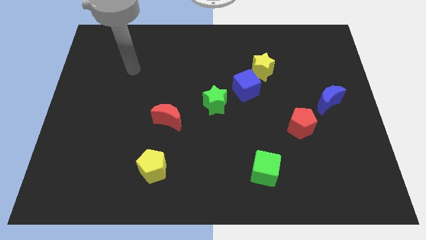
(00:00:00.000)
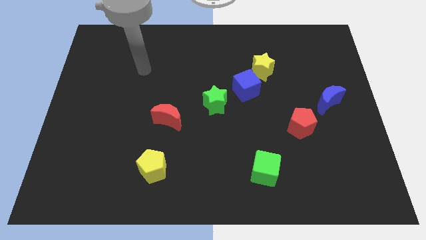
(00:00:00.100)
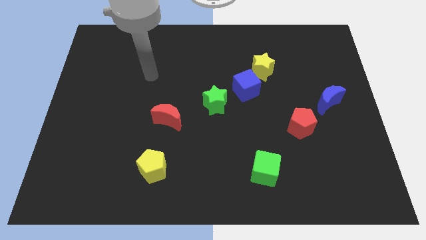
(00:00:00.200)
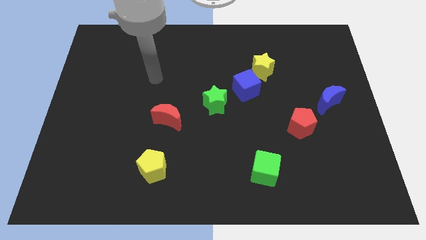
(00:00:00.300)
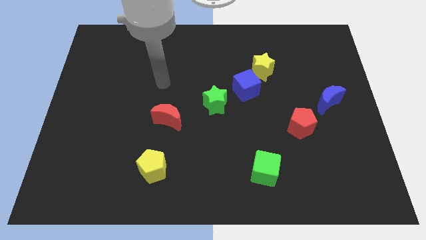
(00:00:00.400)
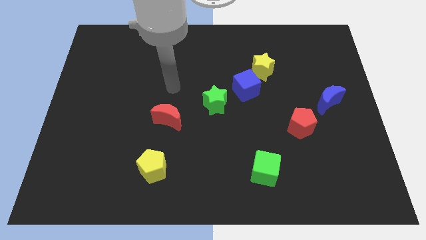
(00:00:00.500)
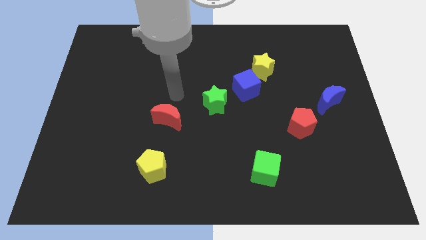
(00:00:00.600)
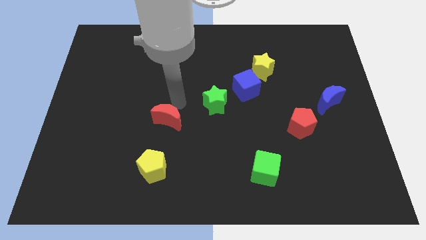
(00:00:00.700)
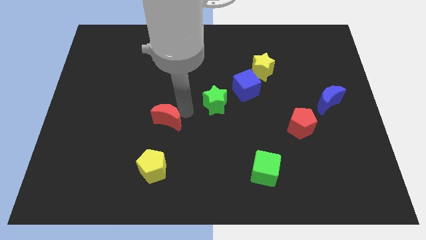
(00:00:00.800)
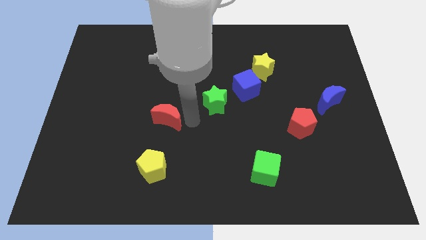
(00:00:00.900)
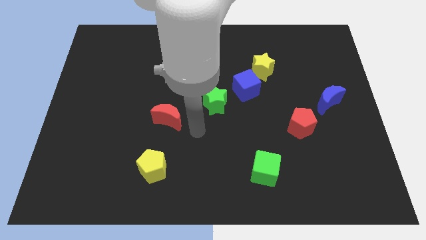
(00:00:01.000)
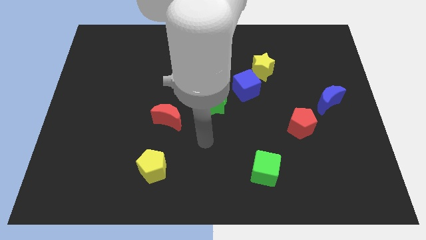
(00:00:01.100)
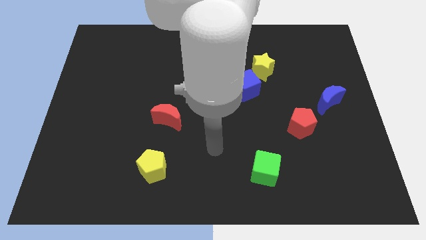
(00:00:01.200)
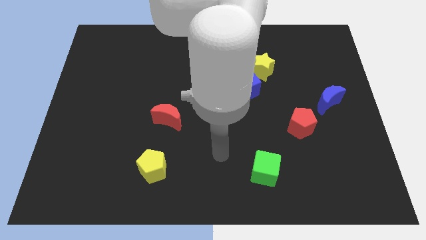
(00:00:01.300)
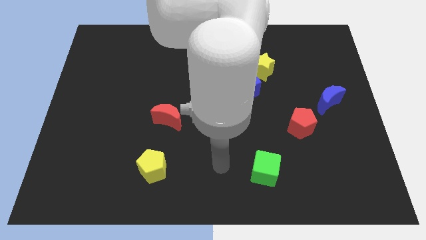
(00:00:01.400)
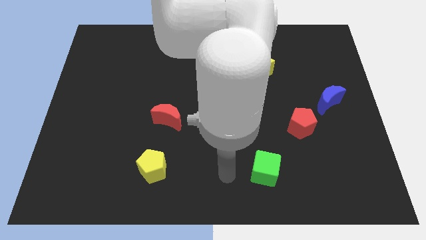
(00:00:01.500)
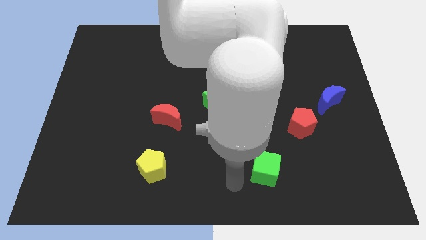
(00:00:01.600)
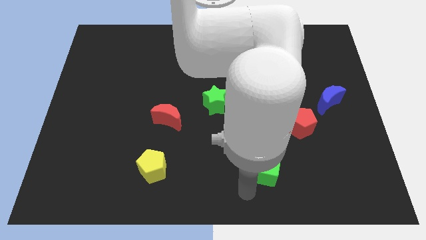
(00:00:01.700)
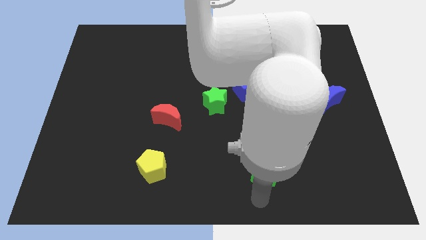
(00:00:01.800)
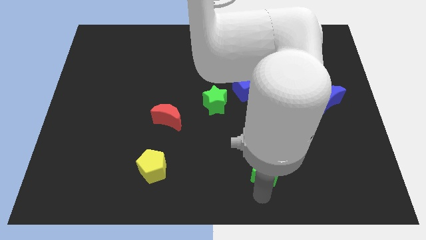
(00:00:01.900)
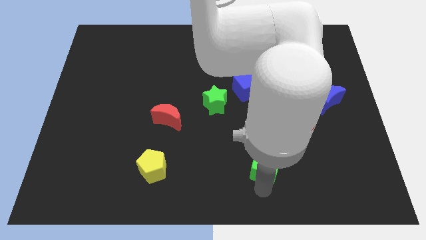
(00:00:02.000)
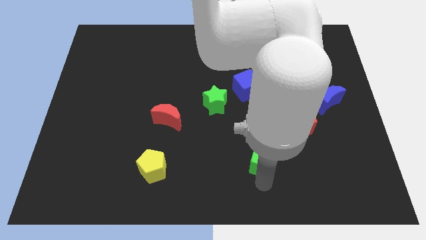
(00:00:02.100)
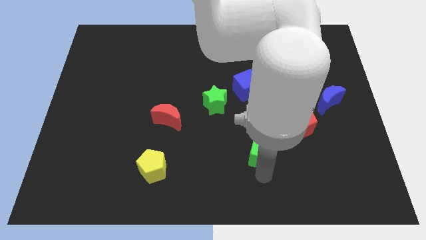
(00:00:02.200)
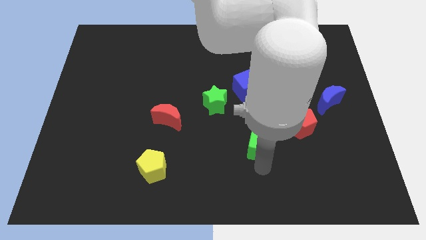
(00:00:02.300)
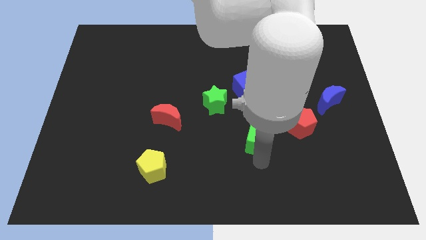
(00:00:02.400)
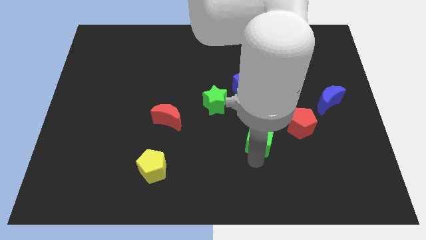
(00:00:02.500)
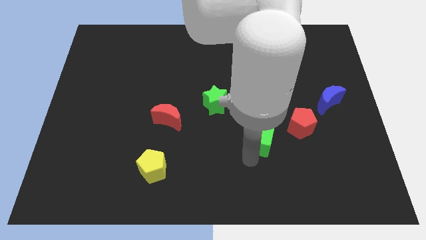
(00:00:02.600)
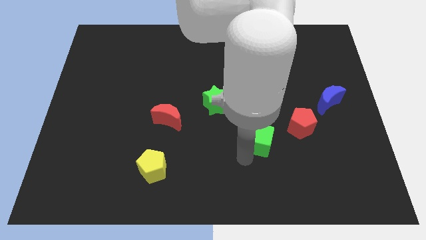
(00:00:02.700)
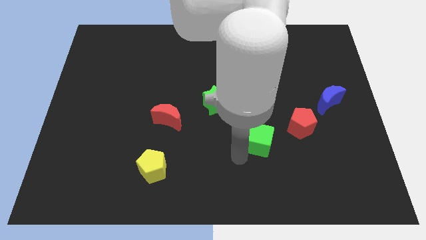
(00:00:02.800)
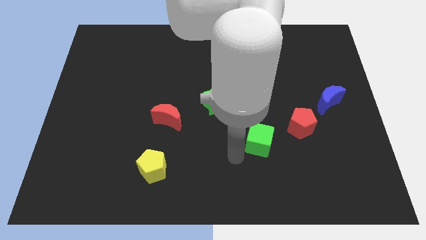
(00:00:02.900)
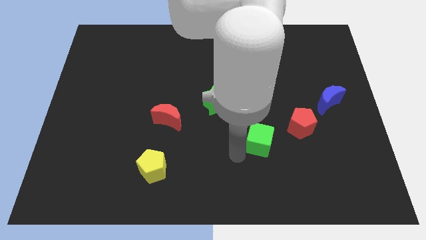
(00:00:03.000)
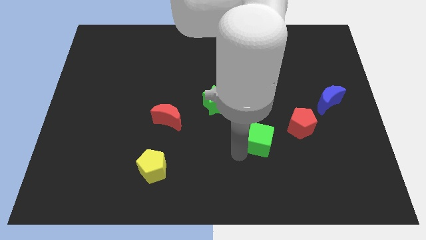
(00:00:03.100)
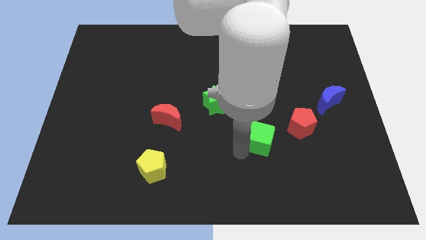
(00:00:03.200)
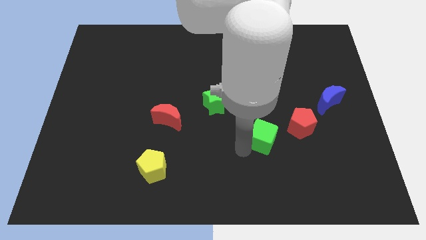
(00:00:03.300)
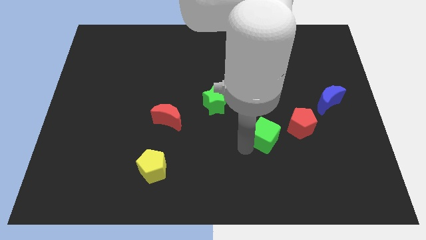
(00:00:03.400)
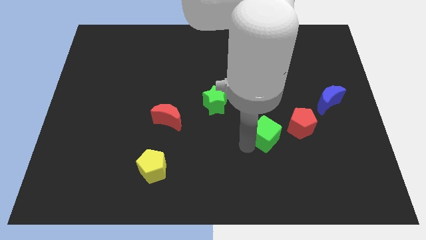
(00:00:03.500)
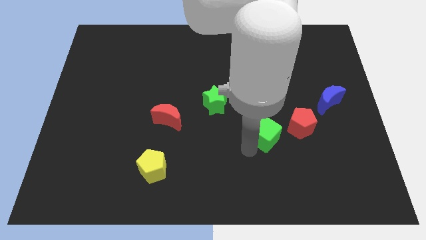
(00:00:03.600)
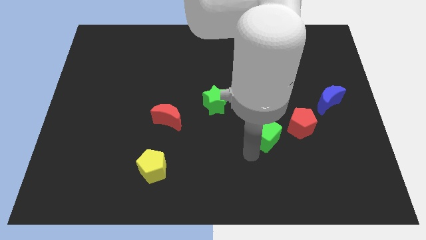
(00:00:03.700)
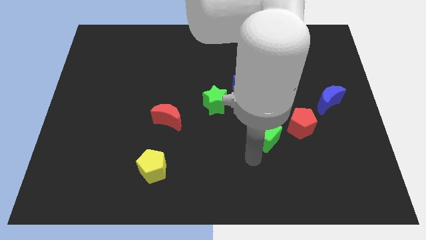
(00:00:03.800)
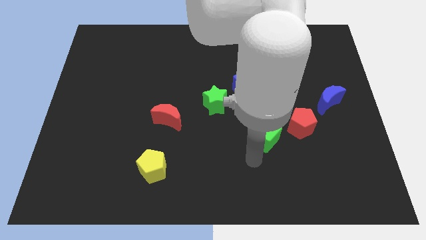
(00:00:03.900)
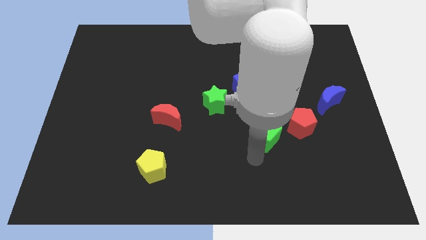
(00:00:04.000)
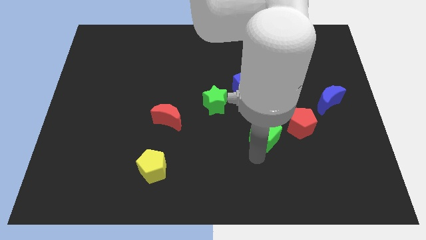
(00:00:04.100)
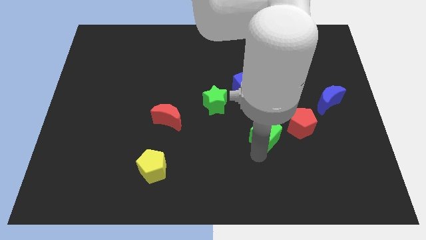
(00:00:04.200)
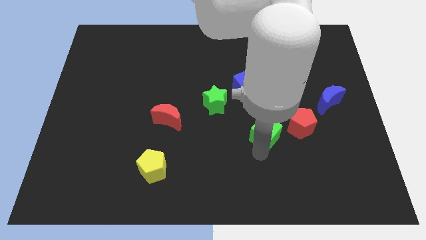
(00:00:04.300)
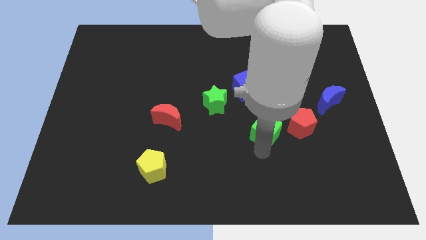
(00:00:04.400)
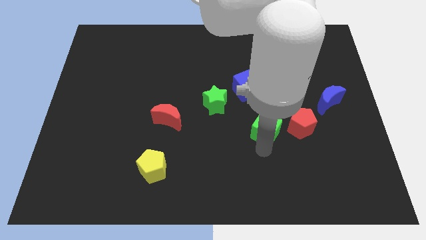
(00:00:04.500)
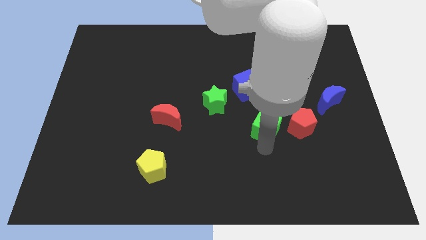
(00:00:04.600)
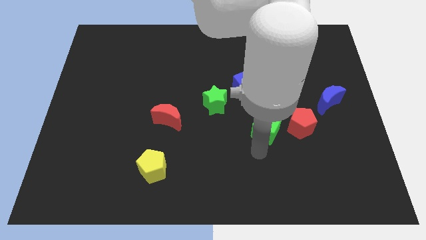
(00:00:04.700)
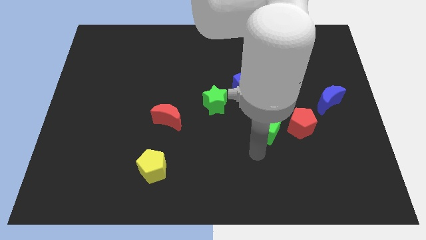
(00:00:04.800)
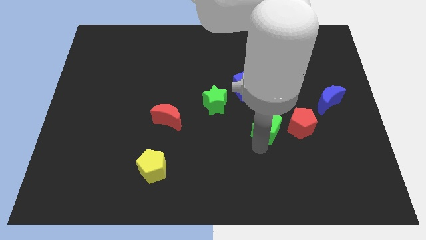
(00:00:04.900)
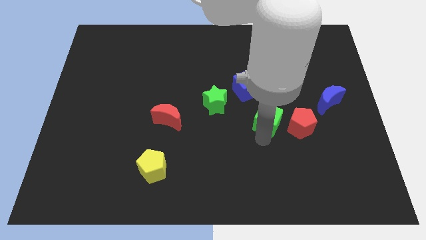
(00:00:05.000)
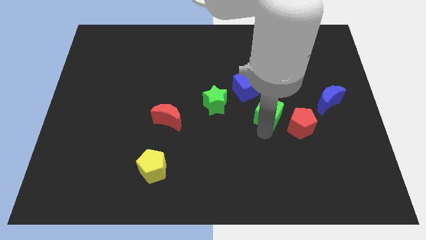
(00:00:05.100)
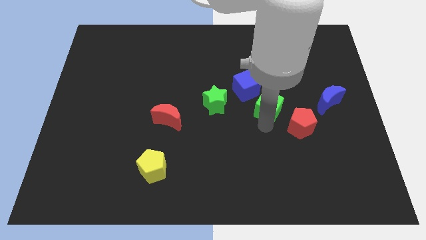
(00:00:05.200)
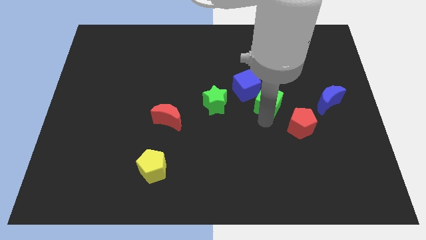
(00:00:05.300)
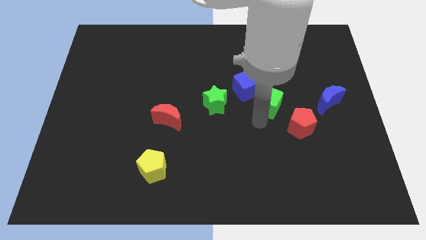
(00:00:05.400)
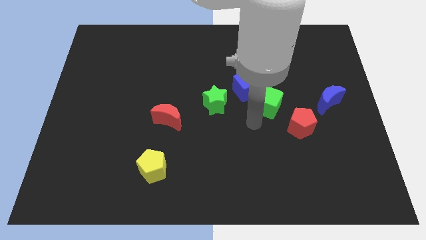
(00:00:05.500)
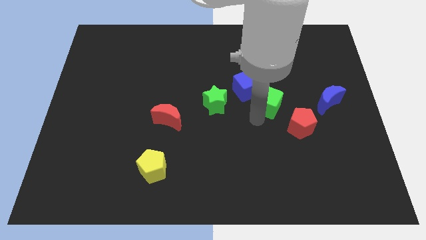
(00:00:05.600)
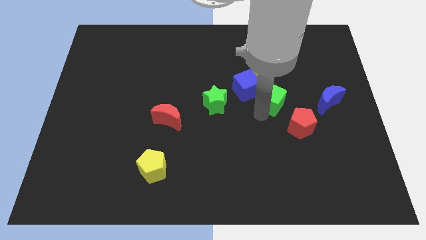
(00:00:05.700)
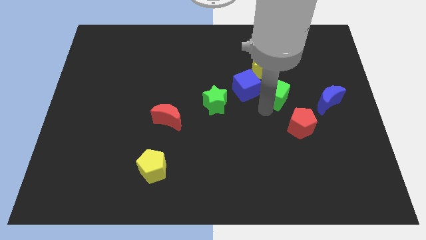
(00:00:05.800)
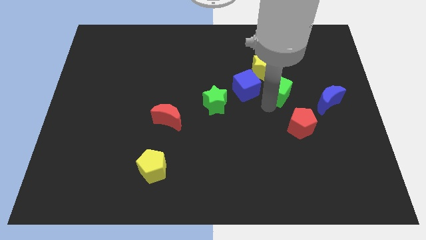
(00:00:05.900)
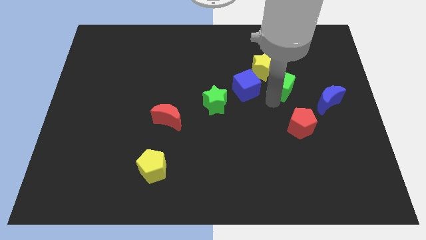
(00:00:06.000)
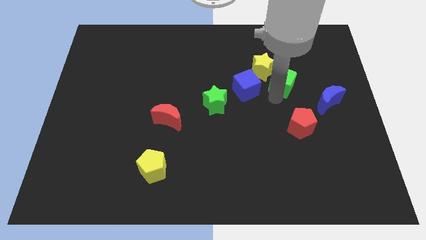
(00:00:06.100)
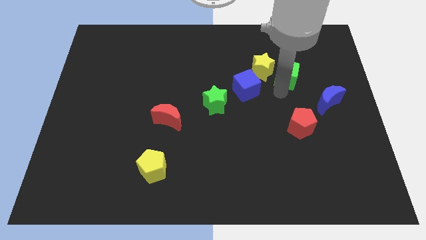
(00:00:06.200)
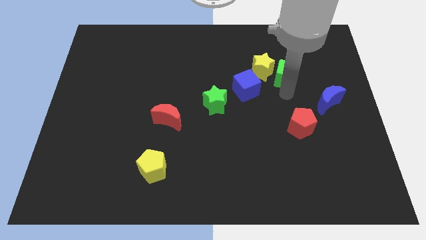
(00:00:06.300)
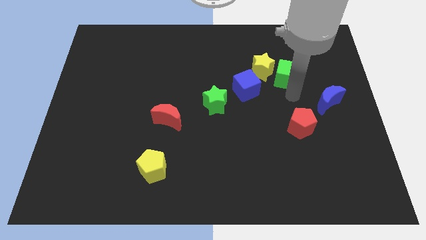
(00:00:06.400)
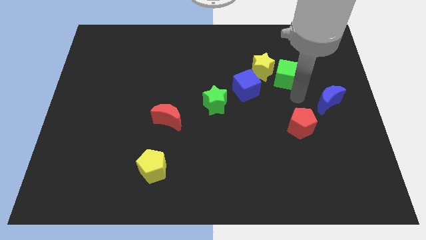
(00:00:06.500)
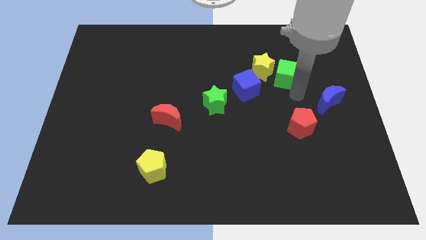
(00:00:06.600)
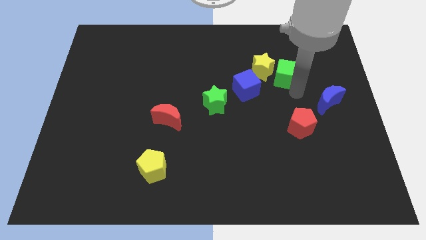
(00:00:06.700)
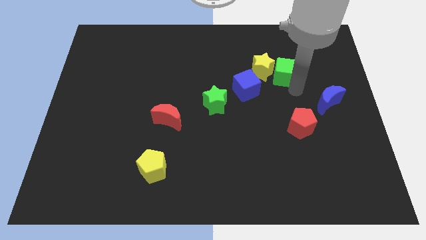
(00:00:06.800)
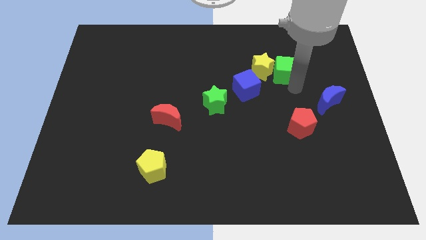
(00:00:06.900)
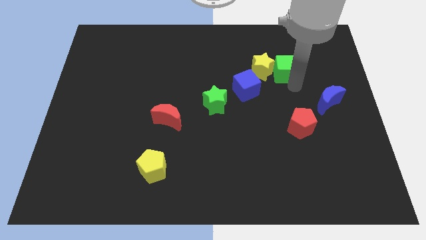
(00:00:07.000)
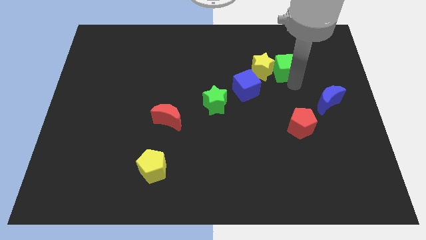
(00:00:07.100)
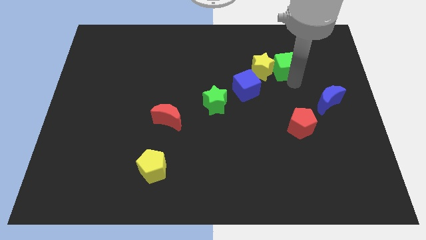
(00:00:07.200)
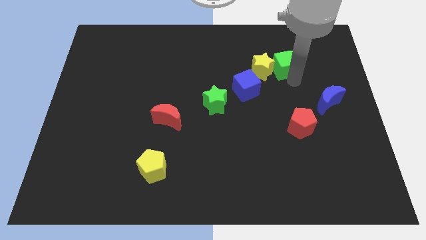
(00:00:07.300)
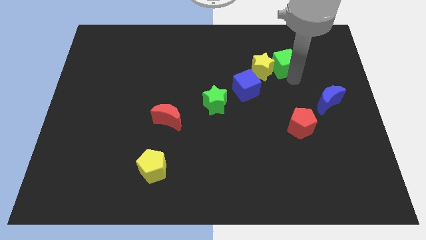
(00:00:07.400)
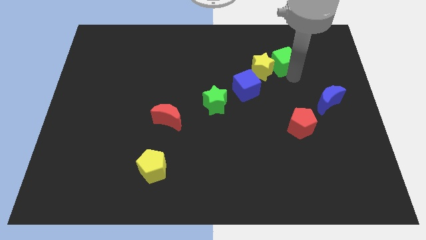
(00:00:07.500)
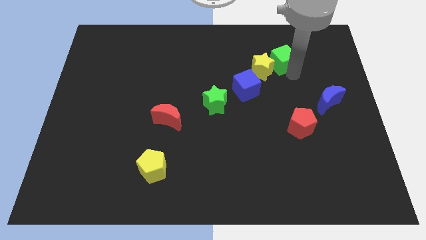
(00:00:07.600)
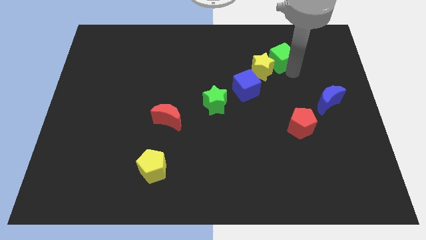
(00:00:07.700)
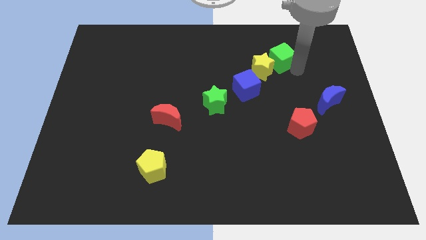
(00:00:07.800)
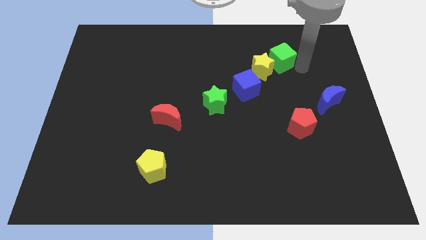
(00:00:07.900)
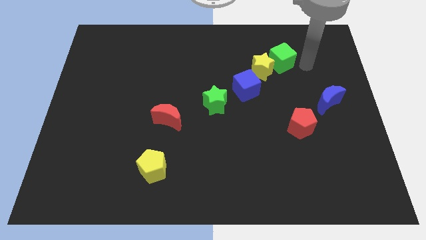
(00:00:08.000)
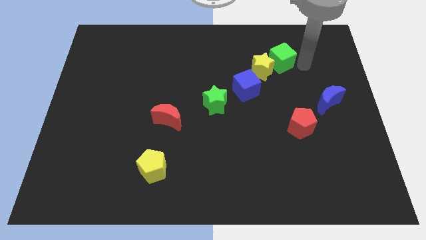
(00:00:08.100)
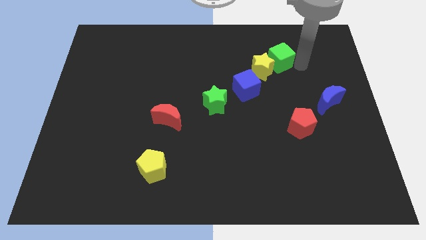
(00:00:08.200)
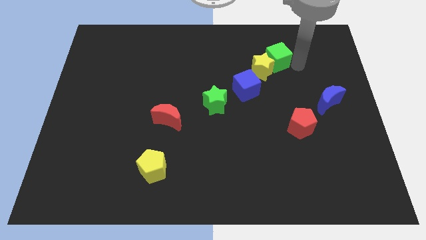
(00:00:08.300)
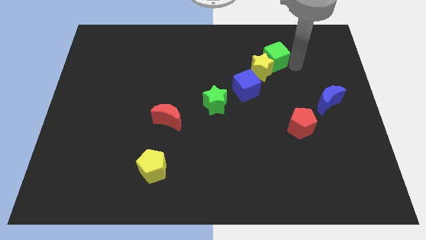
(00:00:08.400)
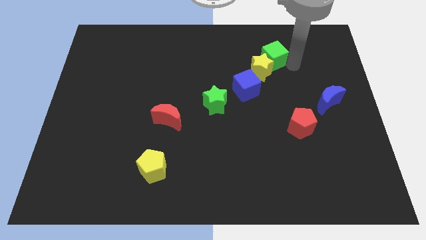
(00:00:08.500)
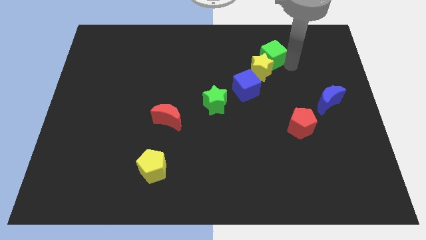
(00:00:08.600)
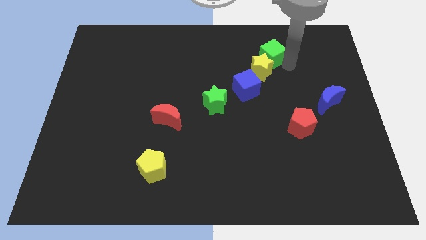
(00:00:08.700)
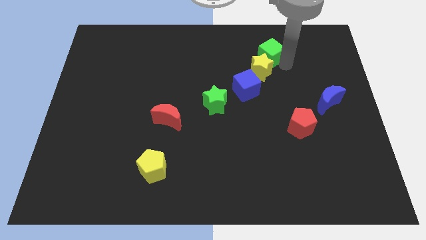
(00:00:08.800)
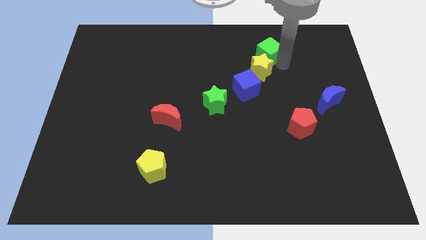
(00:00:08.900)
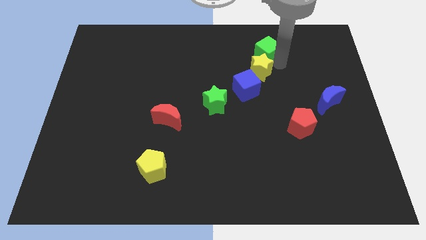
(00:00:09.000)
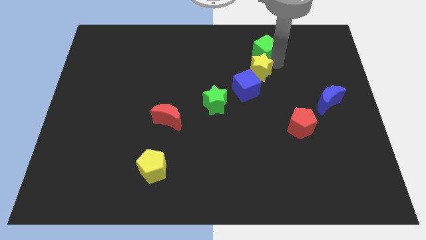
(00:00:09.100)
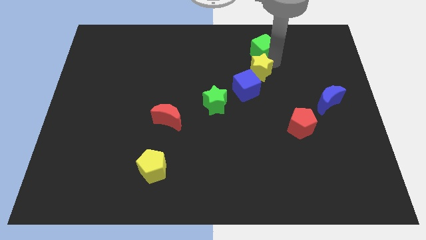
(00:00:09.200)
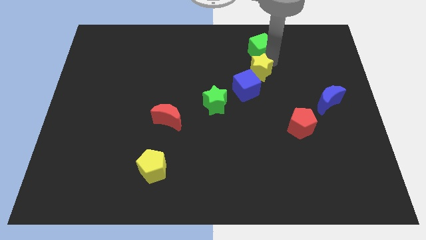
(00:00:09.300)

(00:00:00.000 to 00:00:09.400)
push the green cube to the top side of the blue cube
